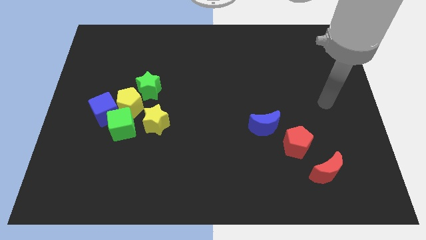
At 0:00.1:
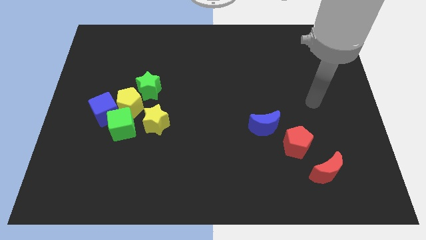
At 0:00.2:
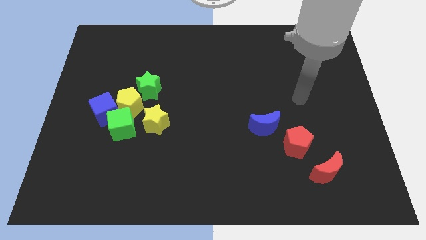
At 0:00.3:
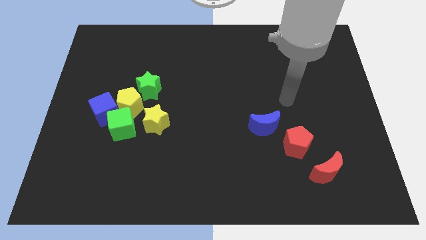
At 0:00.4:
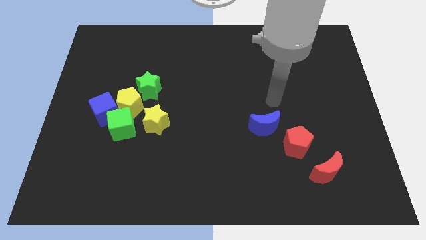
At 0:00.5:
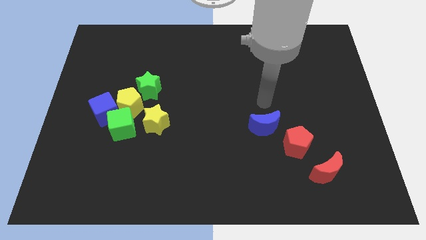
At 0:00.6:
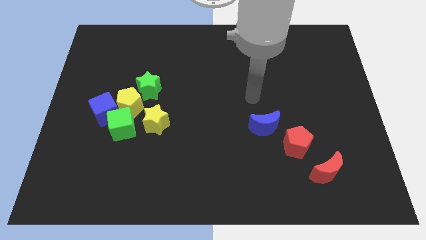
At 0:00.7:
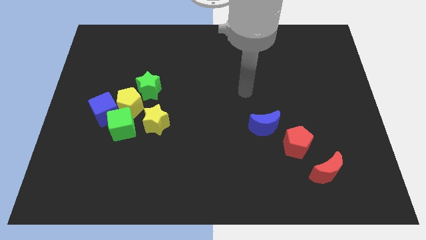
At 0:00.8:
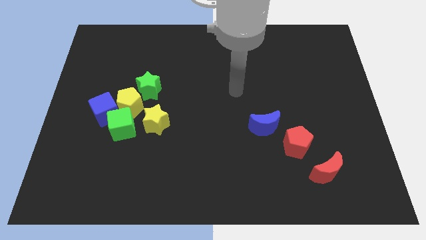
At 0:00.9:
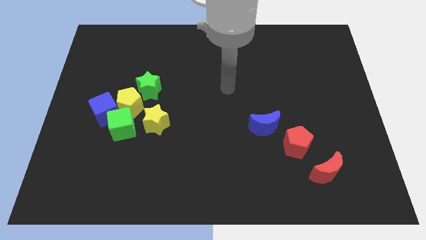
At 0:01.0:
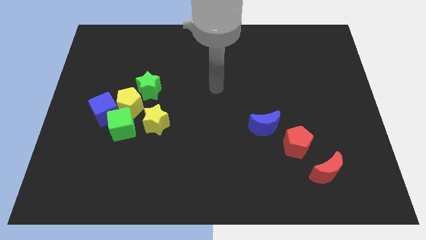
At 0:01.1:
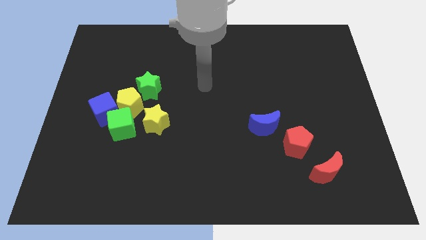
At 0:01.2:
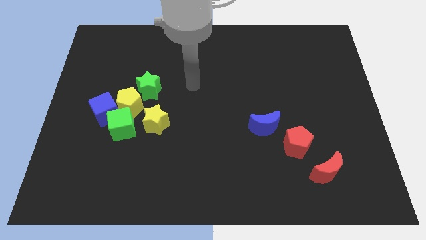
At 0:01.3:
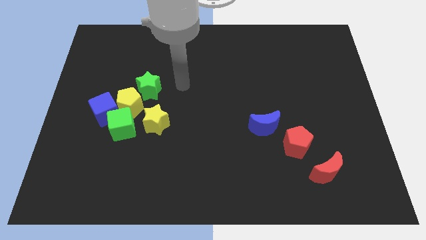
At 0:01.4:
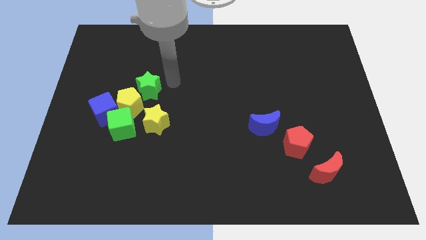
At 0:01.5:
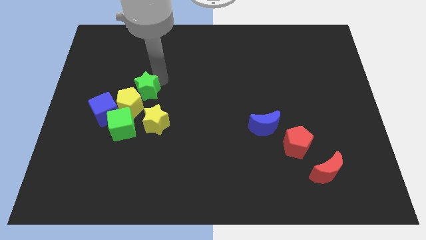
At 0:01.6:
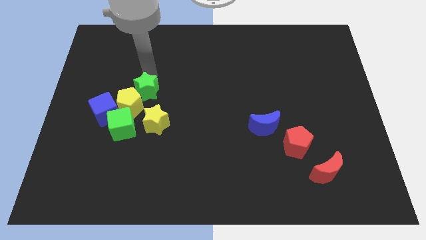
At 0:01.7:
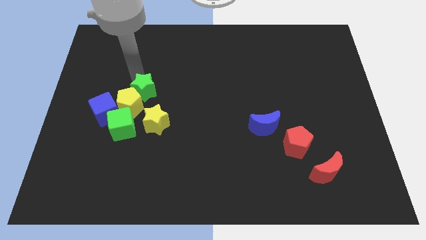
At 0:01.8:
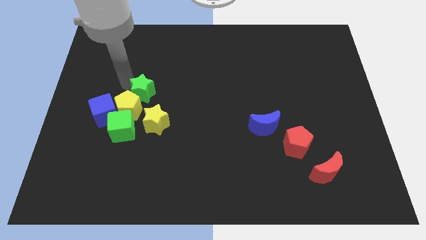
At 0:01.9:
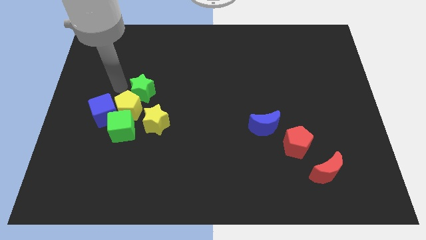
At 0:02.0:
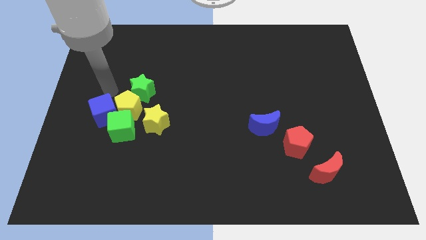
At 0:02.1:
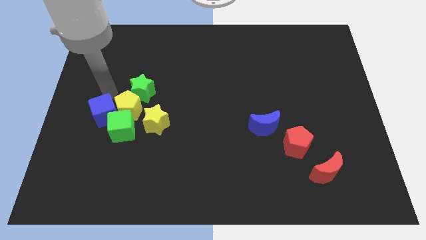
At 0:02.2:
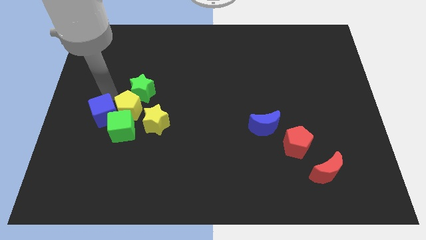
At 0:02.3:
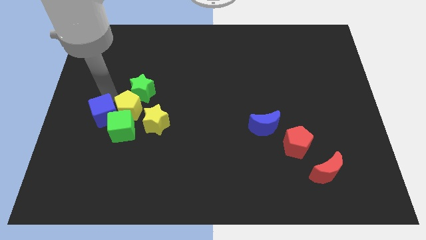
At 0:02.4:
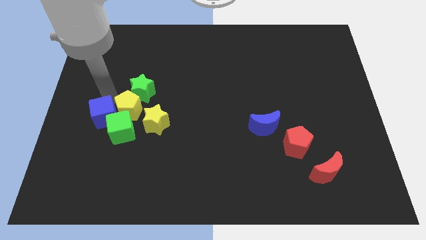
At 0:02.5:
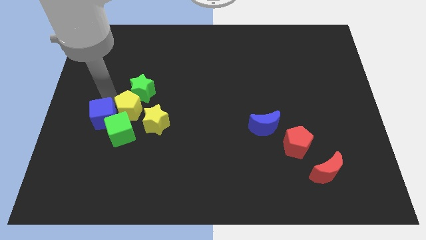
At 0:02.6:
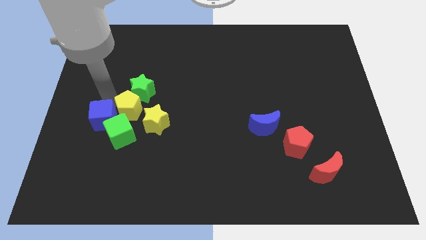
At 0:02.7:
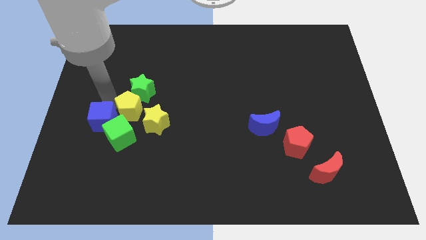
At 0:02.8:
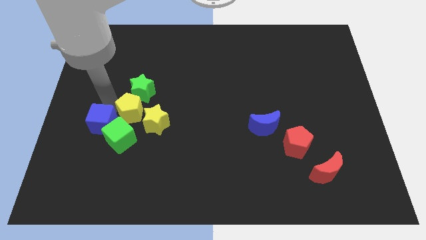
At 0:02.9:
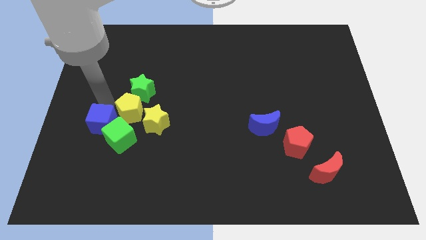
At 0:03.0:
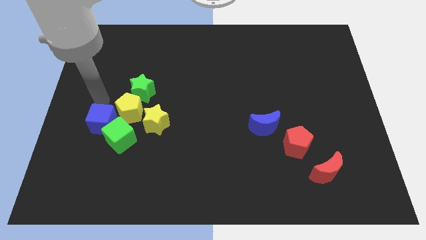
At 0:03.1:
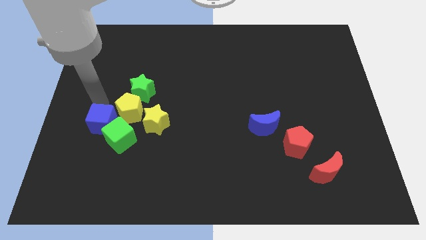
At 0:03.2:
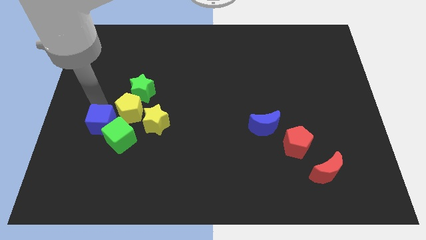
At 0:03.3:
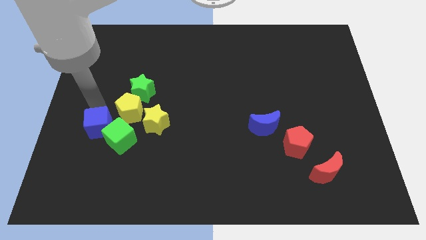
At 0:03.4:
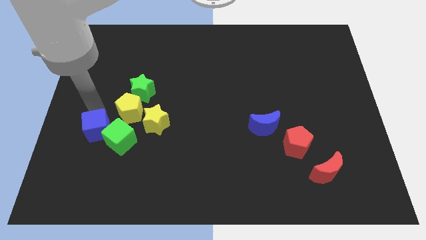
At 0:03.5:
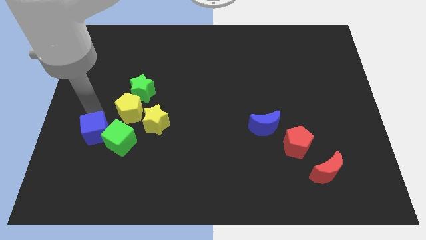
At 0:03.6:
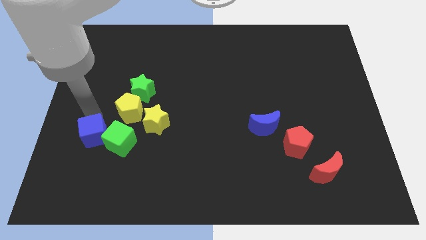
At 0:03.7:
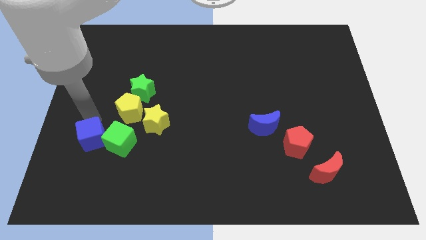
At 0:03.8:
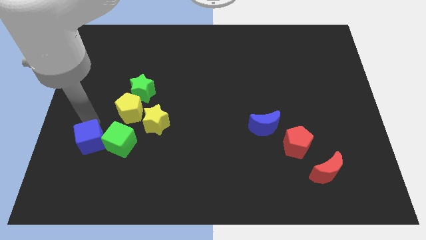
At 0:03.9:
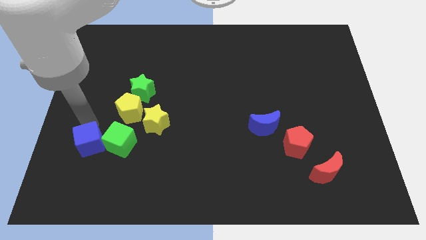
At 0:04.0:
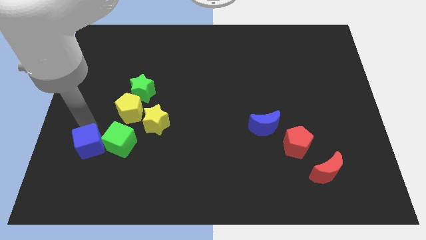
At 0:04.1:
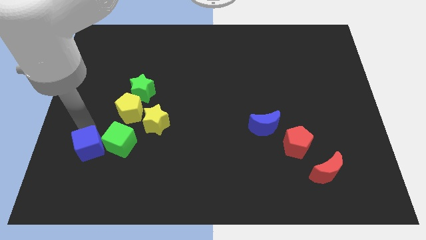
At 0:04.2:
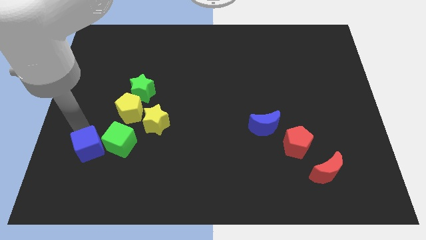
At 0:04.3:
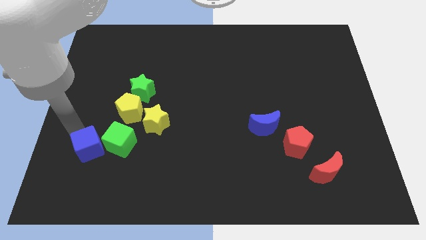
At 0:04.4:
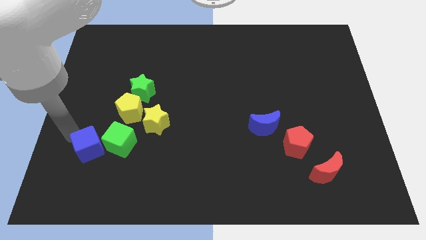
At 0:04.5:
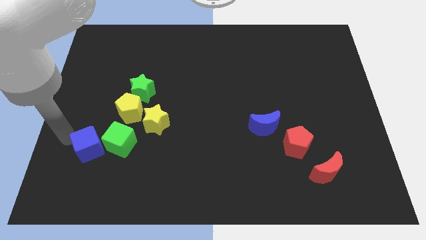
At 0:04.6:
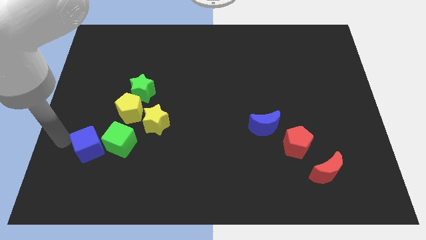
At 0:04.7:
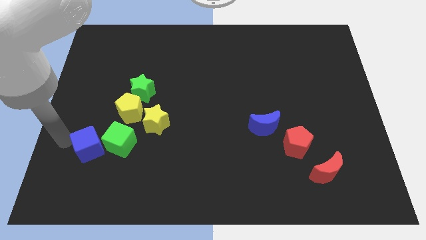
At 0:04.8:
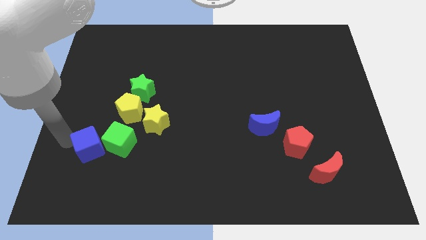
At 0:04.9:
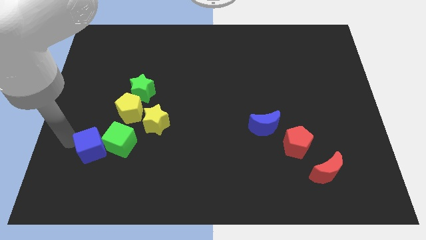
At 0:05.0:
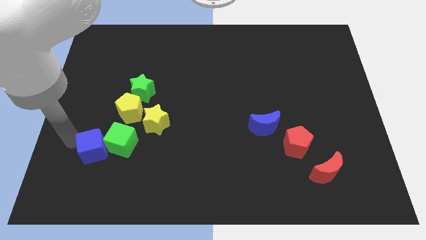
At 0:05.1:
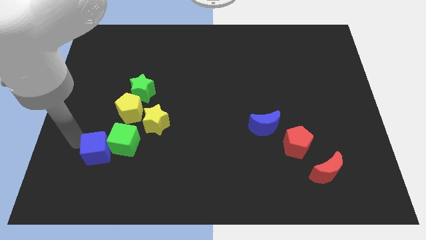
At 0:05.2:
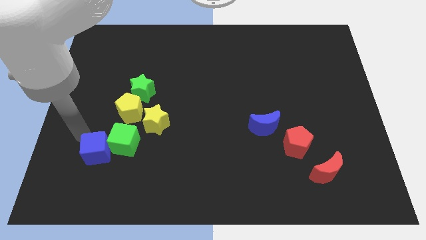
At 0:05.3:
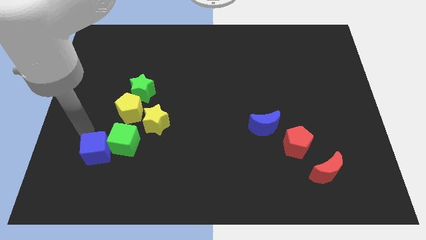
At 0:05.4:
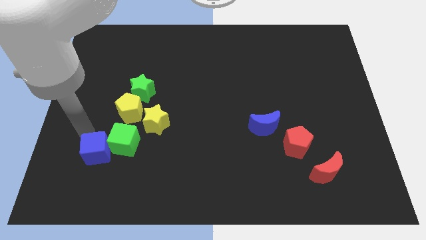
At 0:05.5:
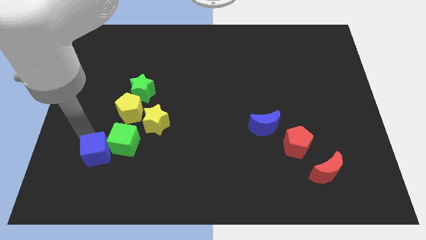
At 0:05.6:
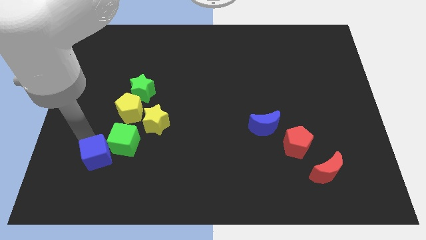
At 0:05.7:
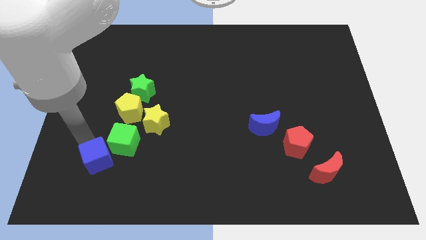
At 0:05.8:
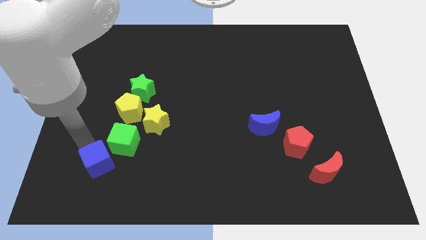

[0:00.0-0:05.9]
move the blue cube to the bottom of the green cube

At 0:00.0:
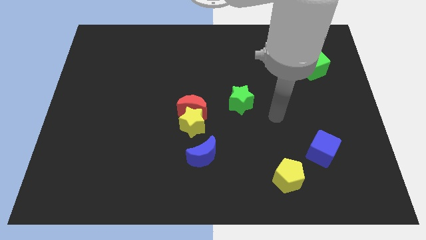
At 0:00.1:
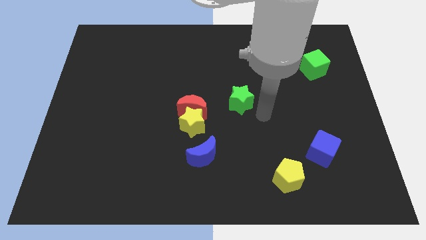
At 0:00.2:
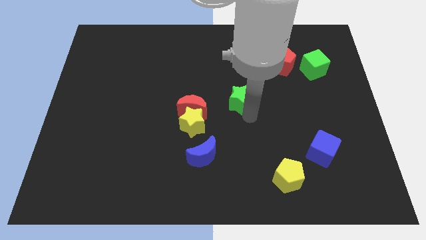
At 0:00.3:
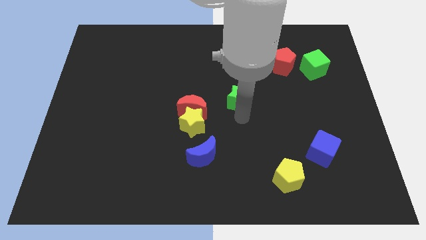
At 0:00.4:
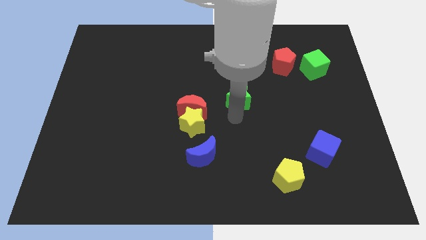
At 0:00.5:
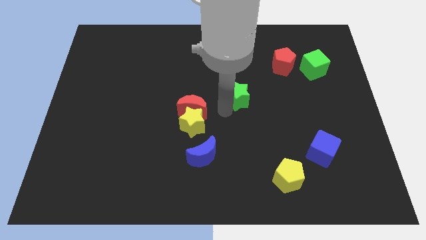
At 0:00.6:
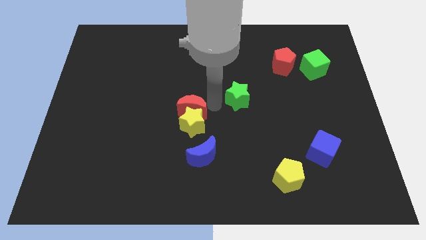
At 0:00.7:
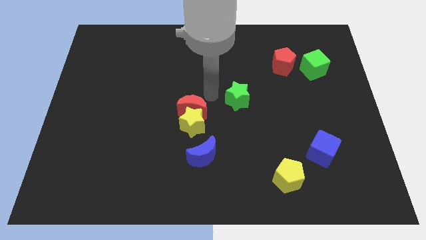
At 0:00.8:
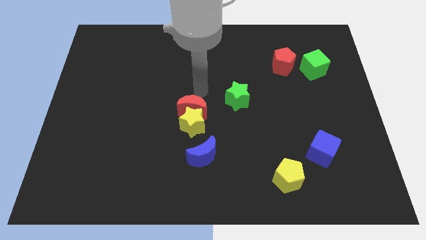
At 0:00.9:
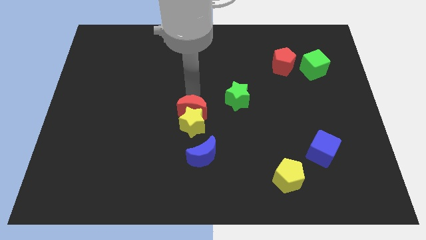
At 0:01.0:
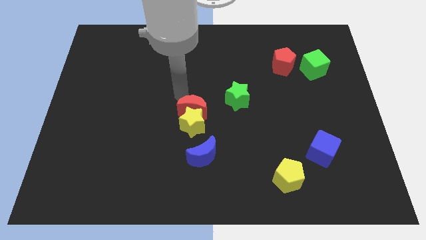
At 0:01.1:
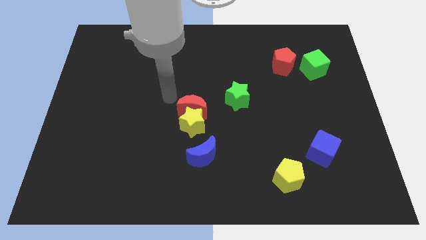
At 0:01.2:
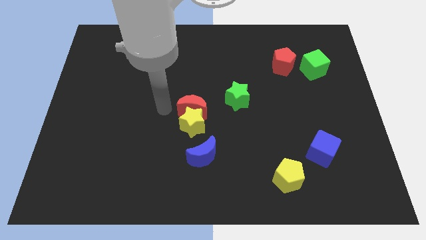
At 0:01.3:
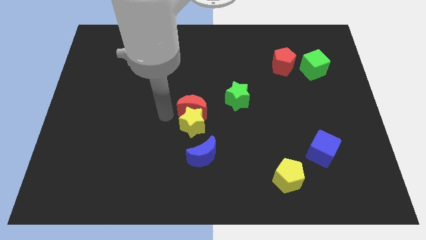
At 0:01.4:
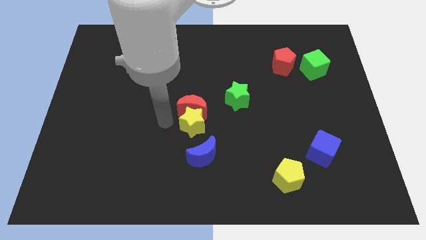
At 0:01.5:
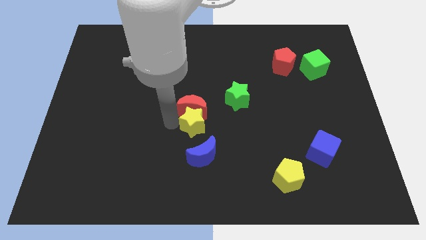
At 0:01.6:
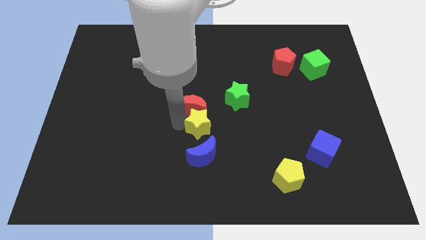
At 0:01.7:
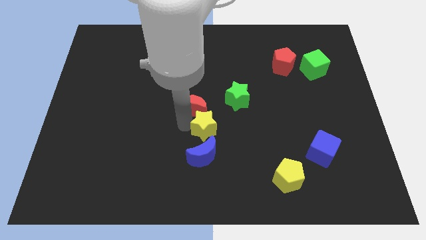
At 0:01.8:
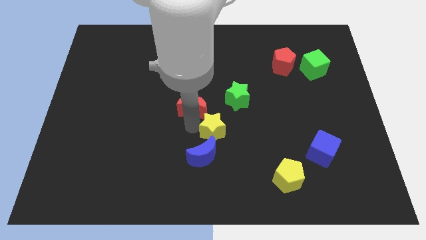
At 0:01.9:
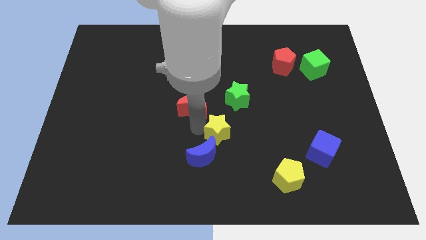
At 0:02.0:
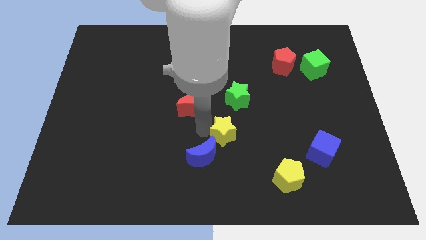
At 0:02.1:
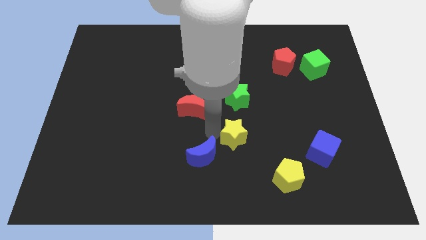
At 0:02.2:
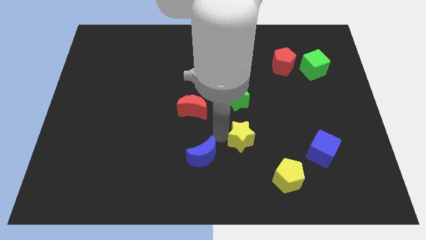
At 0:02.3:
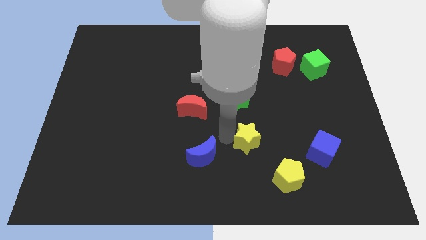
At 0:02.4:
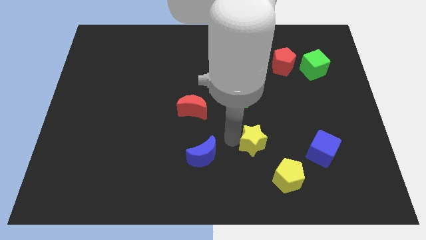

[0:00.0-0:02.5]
put the yellow star to the left side of the blue cube

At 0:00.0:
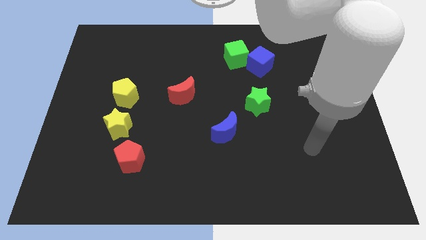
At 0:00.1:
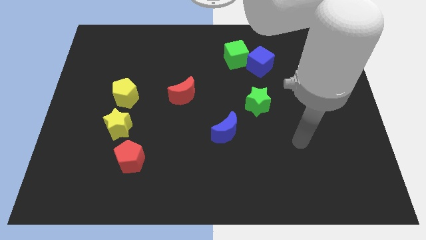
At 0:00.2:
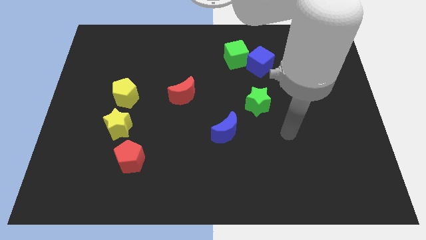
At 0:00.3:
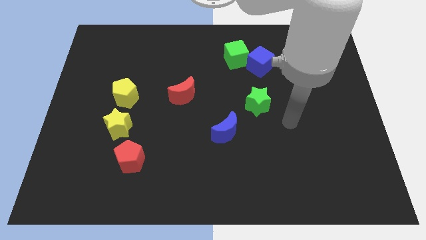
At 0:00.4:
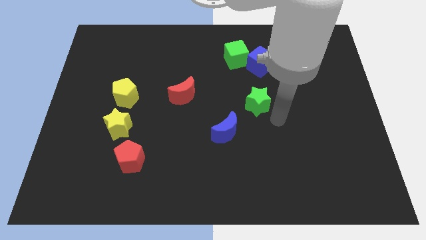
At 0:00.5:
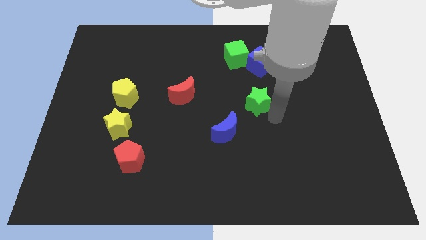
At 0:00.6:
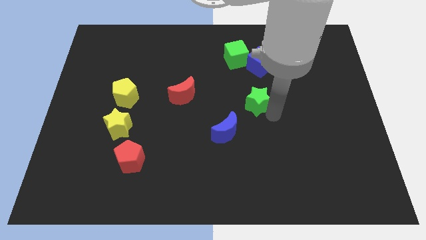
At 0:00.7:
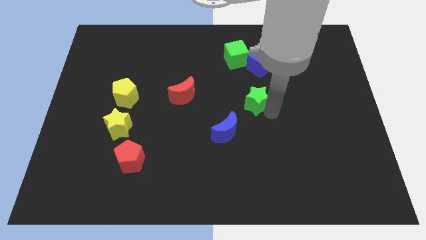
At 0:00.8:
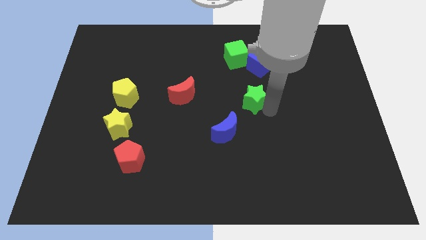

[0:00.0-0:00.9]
slide the green star to the bottom of the green cube
